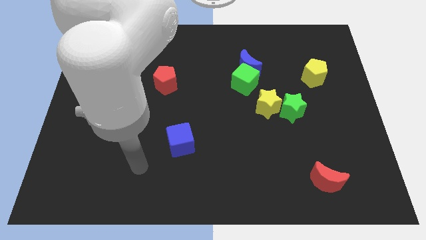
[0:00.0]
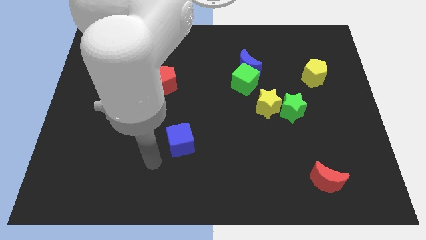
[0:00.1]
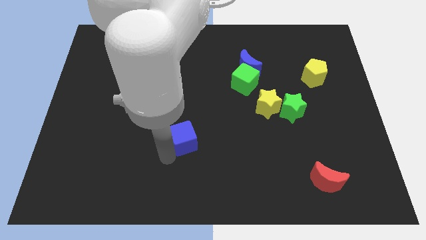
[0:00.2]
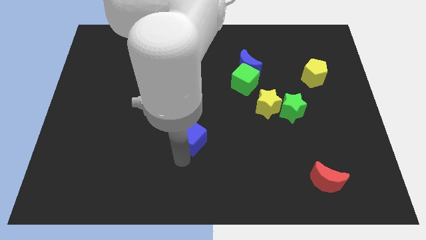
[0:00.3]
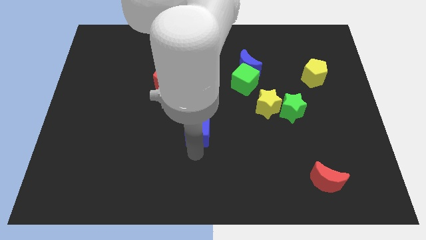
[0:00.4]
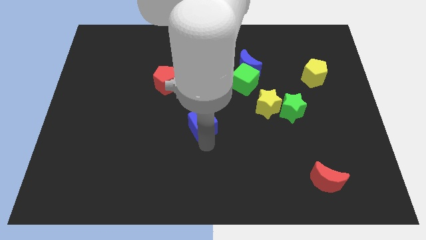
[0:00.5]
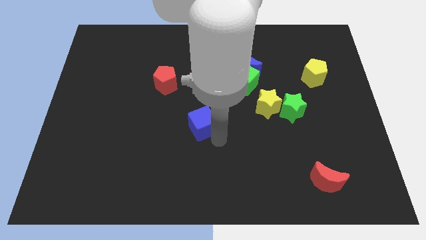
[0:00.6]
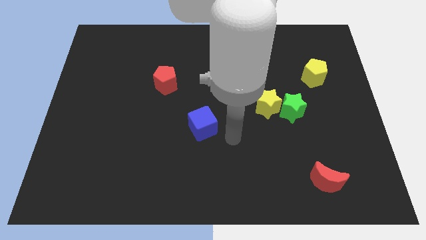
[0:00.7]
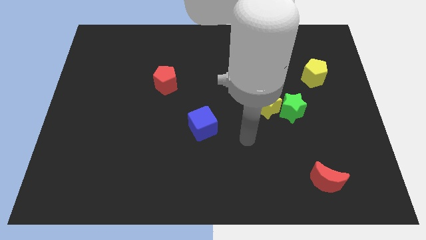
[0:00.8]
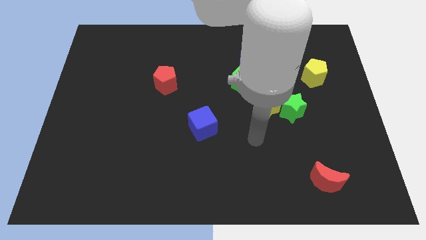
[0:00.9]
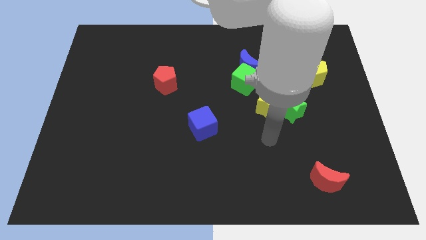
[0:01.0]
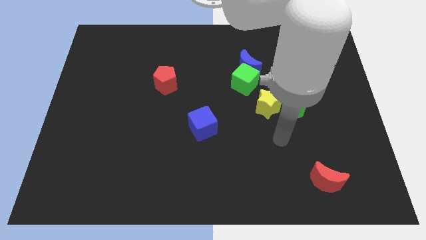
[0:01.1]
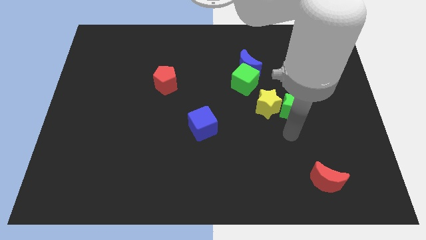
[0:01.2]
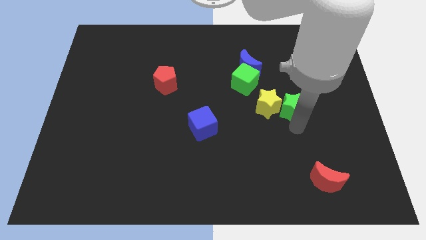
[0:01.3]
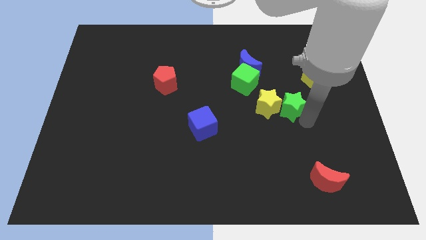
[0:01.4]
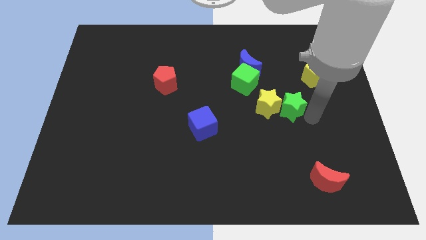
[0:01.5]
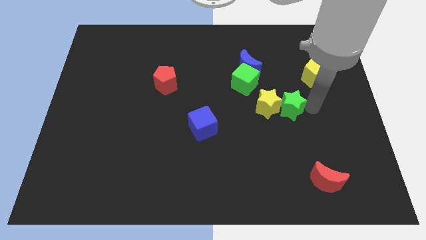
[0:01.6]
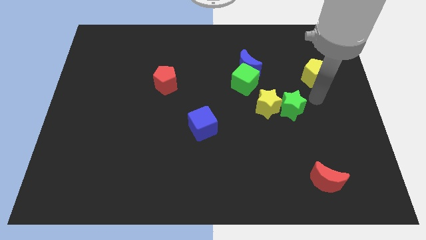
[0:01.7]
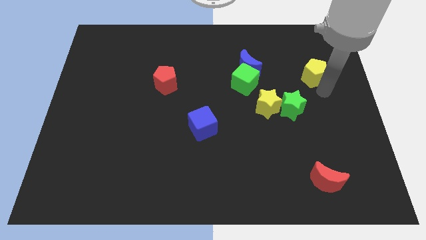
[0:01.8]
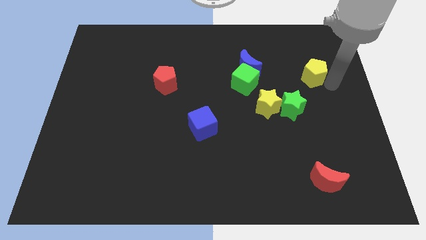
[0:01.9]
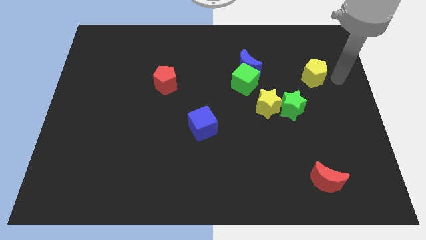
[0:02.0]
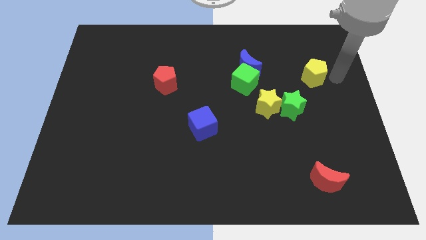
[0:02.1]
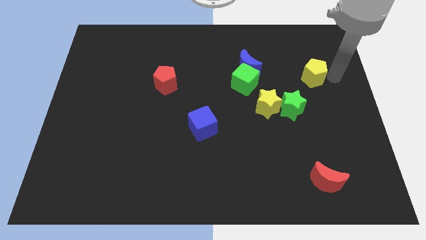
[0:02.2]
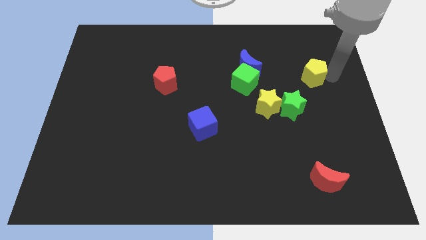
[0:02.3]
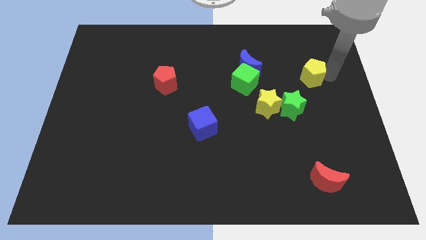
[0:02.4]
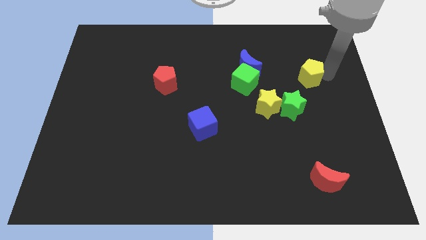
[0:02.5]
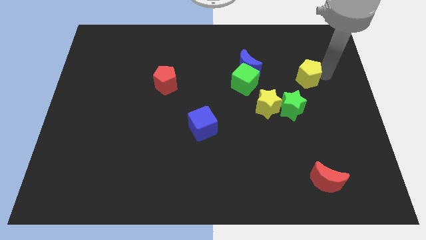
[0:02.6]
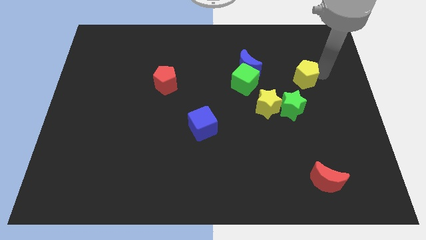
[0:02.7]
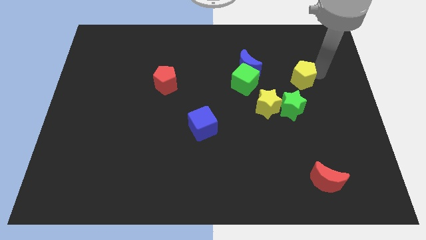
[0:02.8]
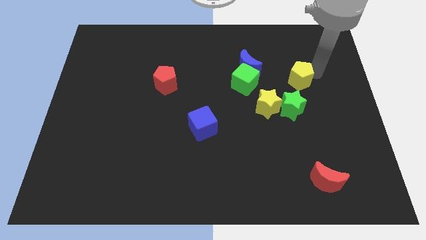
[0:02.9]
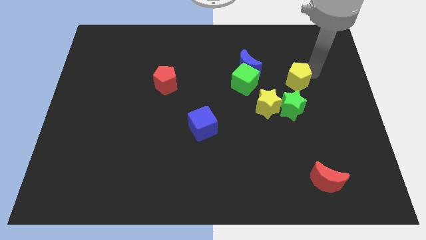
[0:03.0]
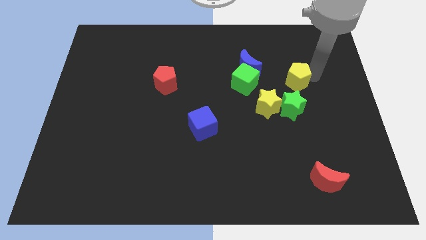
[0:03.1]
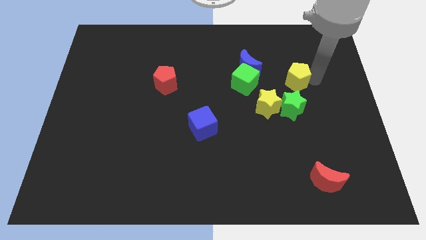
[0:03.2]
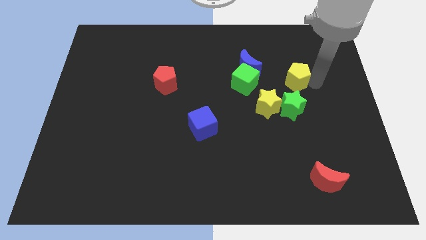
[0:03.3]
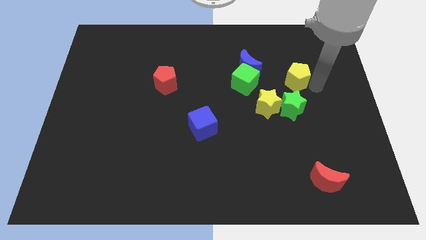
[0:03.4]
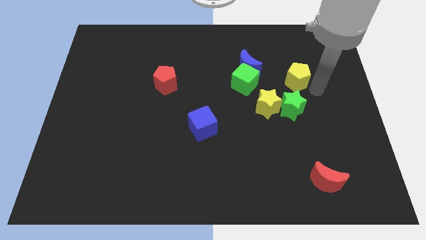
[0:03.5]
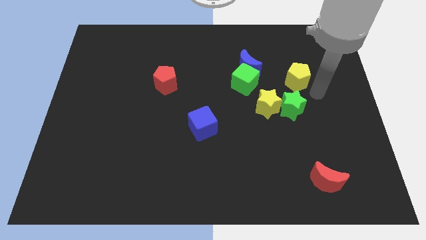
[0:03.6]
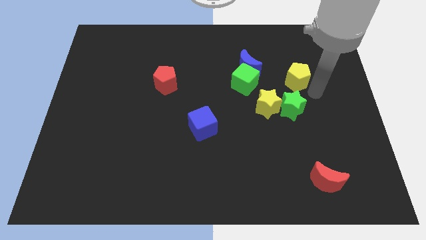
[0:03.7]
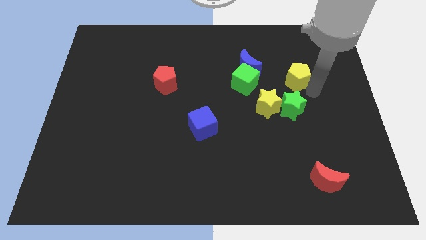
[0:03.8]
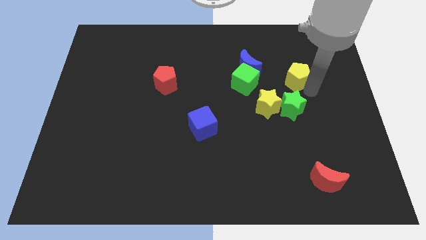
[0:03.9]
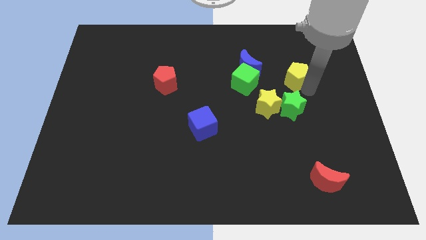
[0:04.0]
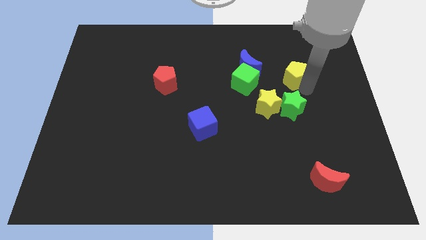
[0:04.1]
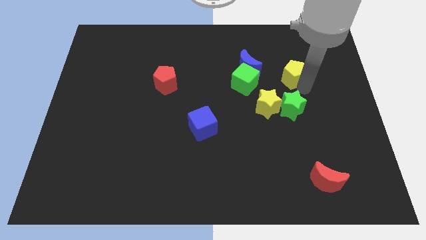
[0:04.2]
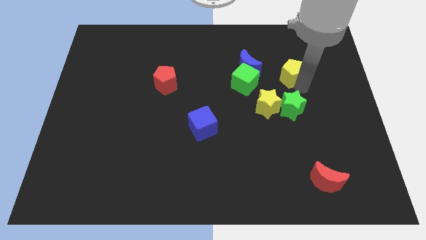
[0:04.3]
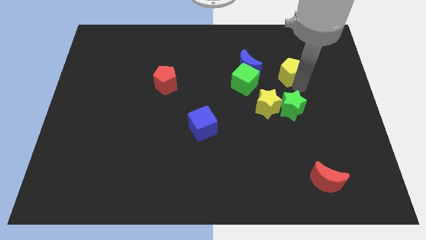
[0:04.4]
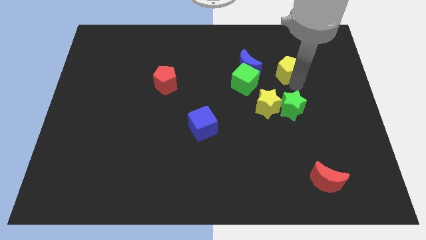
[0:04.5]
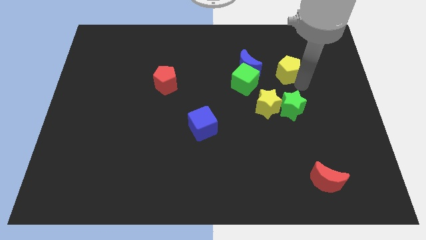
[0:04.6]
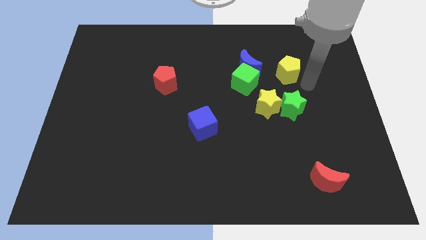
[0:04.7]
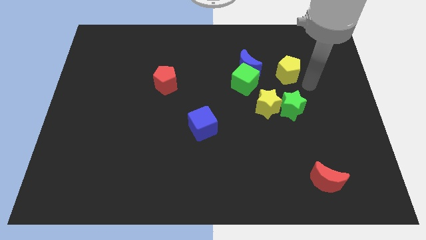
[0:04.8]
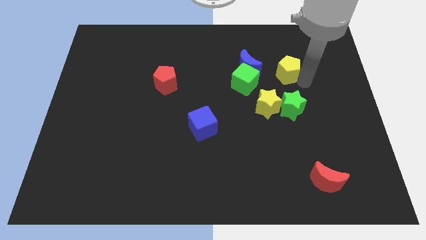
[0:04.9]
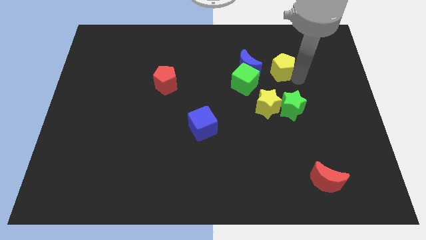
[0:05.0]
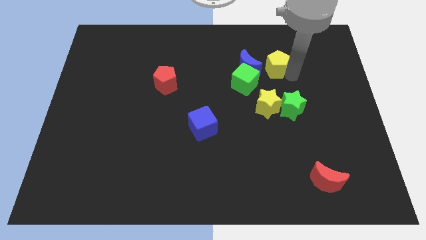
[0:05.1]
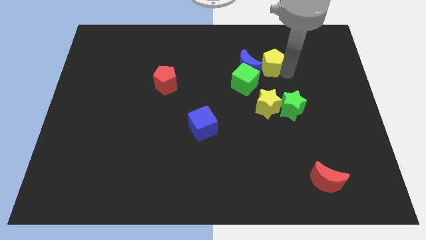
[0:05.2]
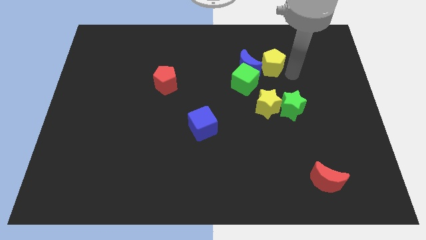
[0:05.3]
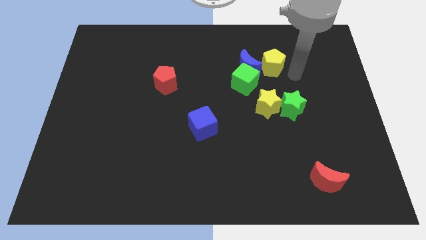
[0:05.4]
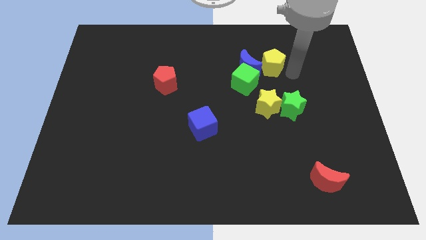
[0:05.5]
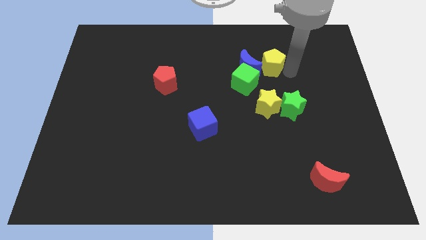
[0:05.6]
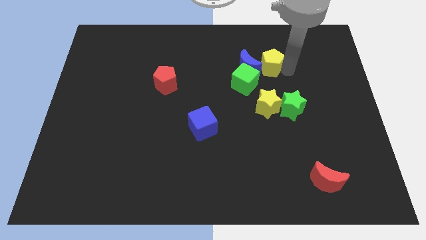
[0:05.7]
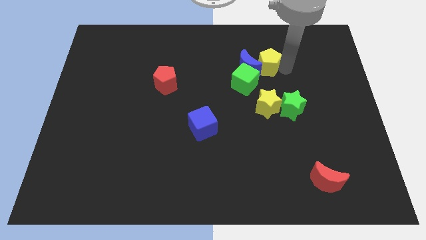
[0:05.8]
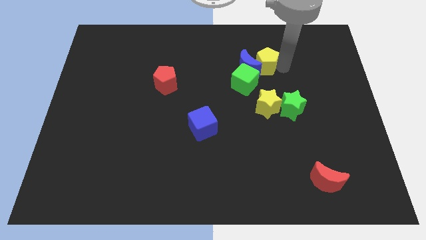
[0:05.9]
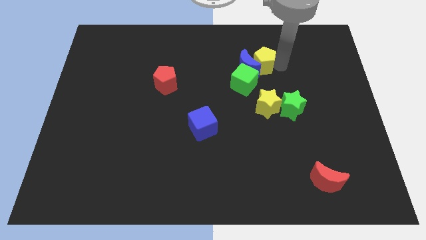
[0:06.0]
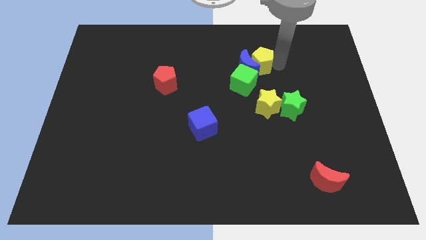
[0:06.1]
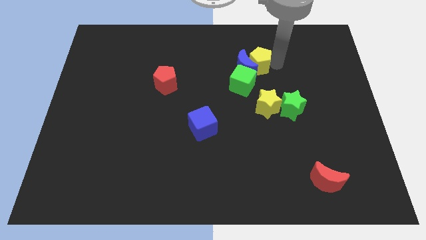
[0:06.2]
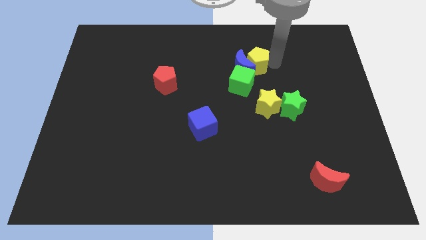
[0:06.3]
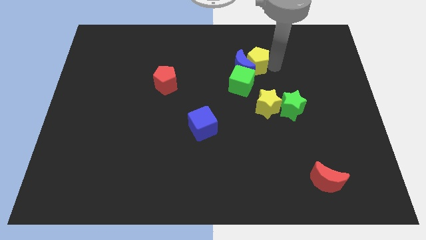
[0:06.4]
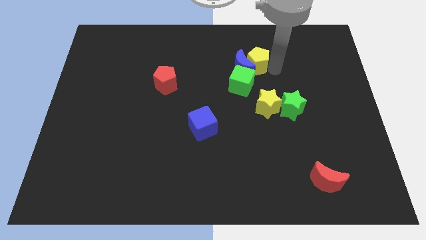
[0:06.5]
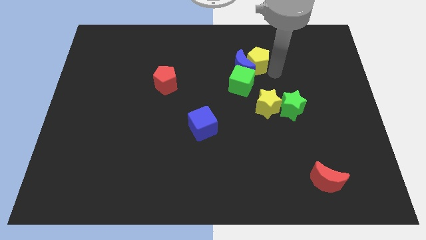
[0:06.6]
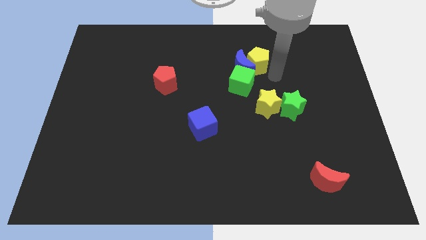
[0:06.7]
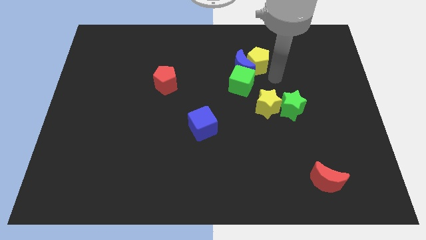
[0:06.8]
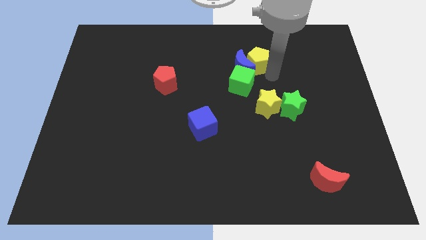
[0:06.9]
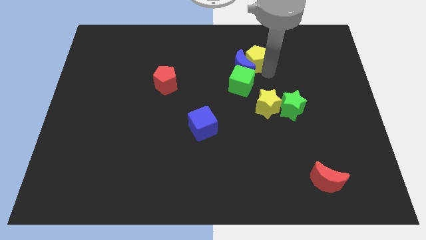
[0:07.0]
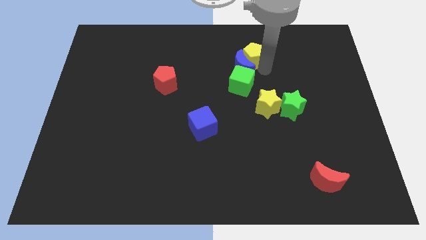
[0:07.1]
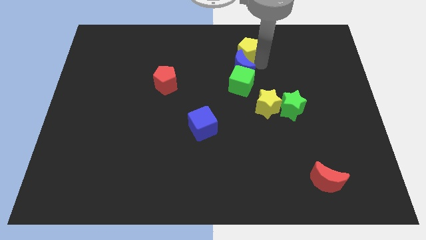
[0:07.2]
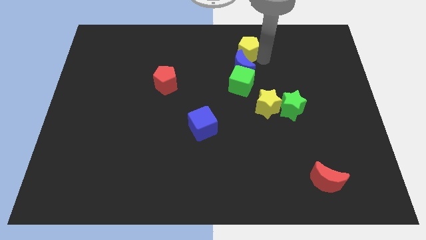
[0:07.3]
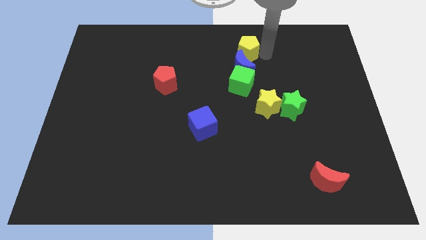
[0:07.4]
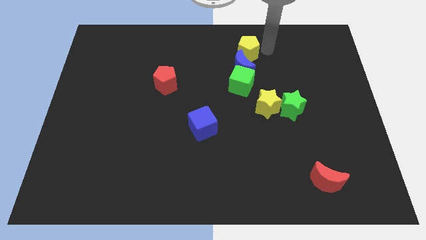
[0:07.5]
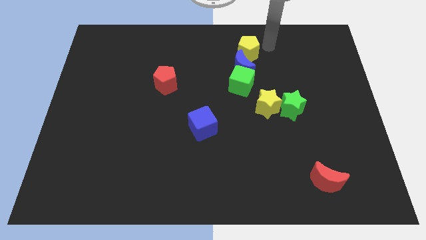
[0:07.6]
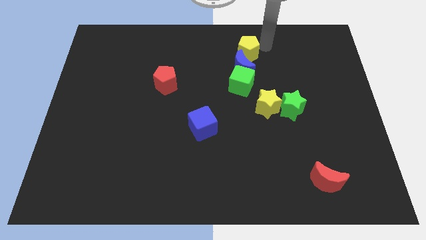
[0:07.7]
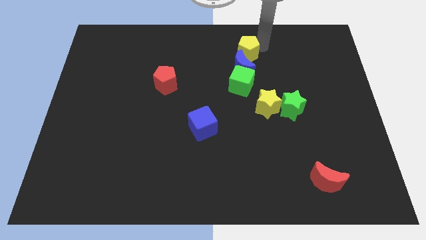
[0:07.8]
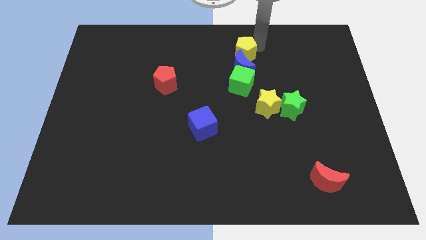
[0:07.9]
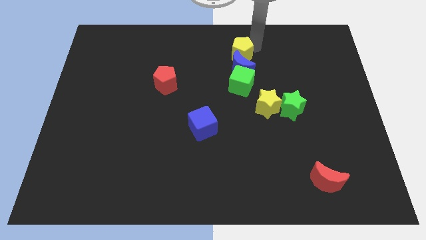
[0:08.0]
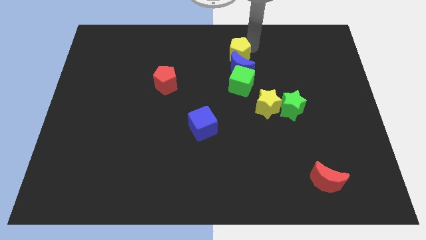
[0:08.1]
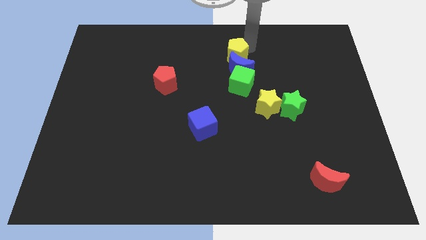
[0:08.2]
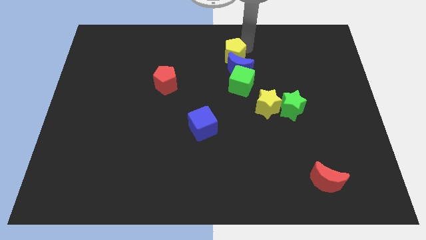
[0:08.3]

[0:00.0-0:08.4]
push the yellow pentagon to the towards your base
